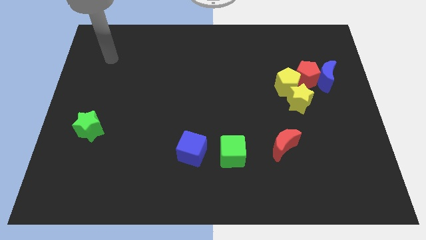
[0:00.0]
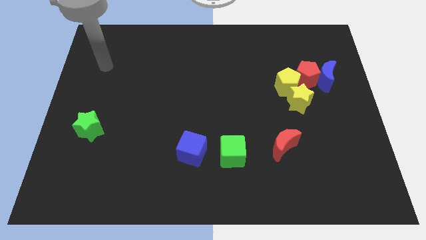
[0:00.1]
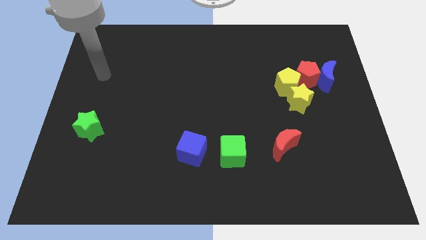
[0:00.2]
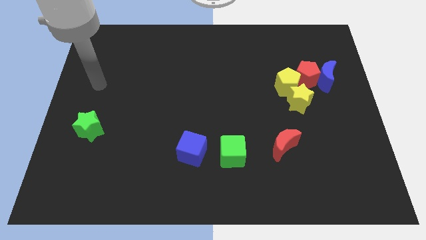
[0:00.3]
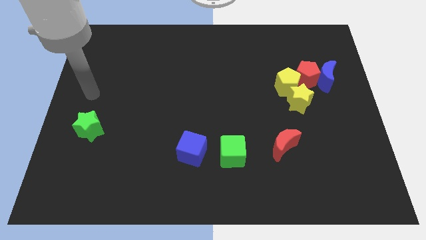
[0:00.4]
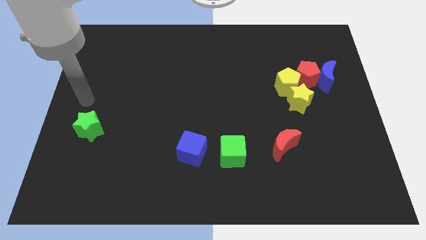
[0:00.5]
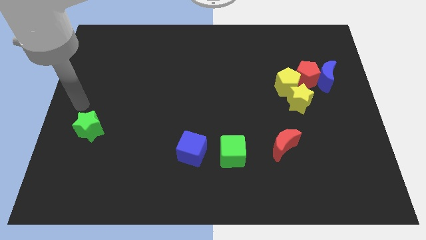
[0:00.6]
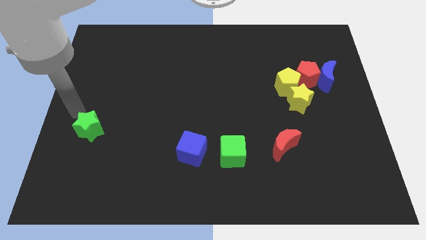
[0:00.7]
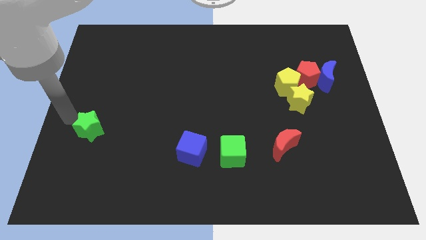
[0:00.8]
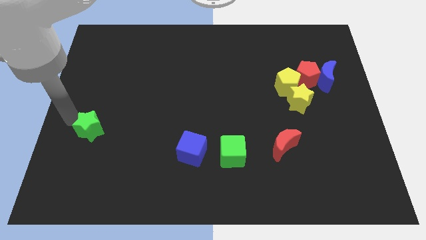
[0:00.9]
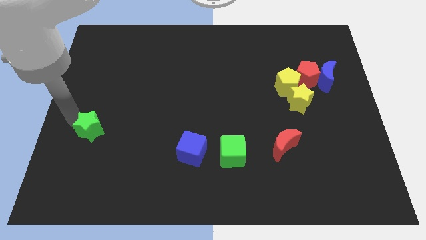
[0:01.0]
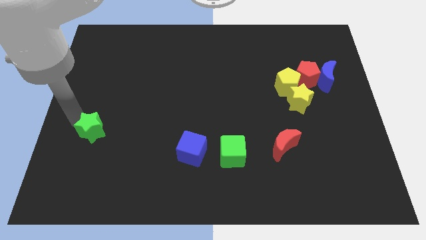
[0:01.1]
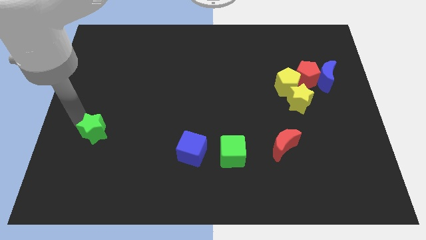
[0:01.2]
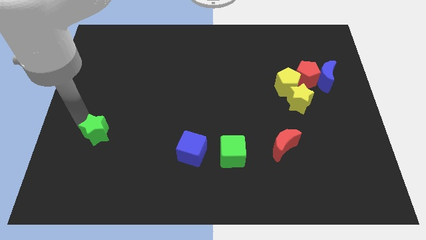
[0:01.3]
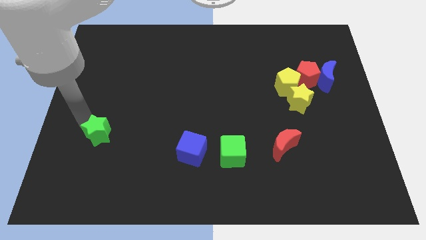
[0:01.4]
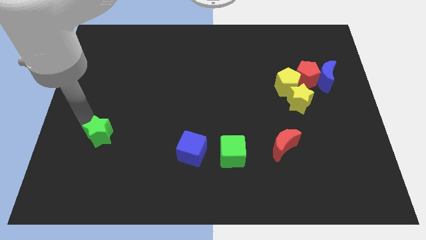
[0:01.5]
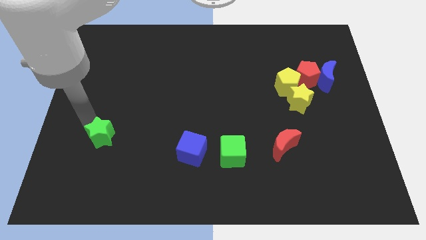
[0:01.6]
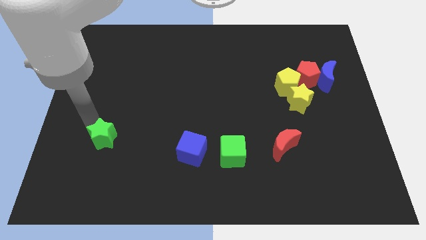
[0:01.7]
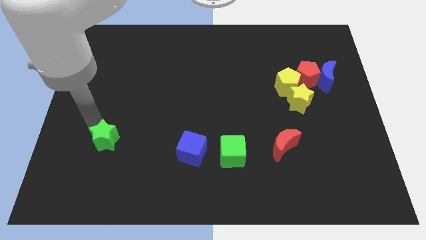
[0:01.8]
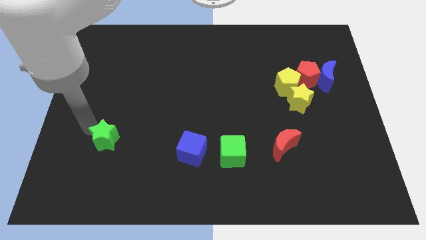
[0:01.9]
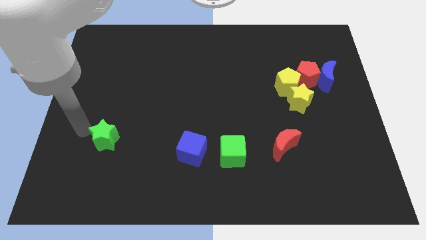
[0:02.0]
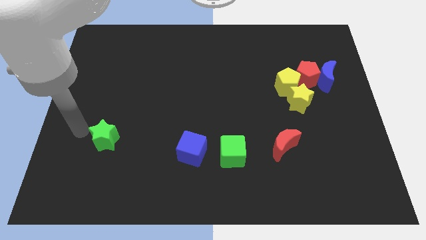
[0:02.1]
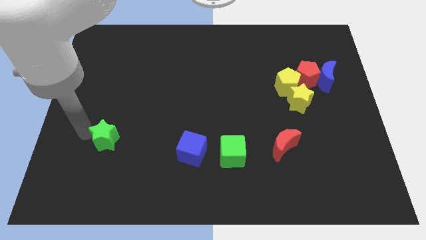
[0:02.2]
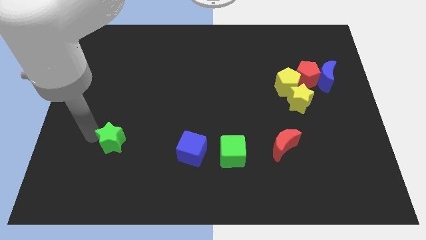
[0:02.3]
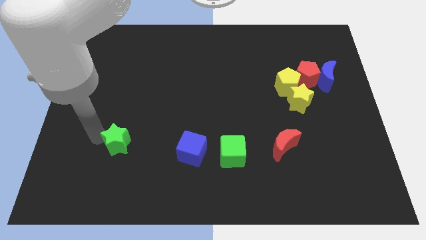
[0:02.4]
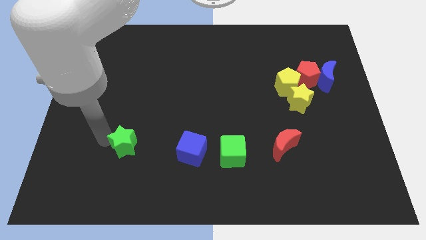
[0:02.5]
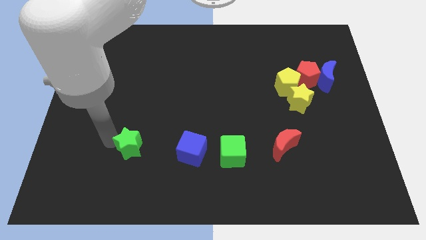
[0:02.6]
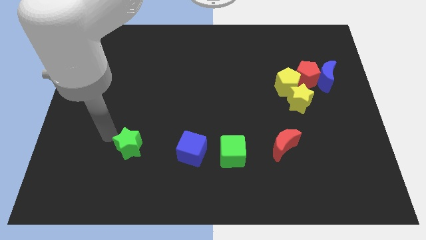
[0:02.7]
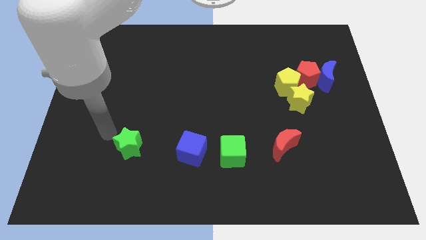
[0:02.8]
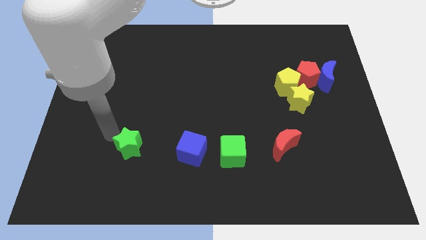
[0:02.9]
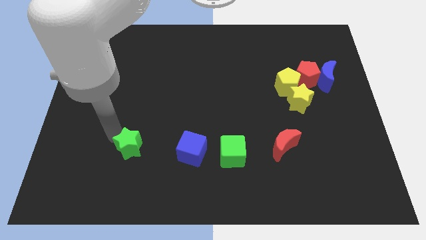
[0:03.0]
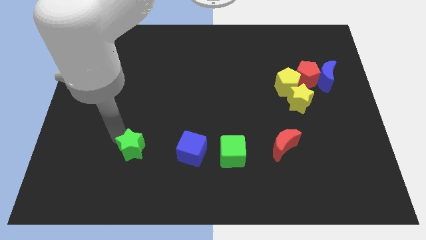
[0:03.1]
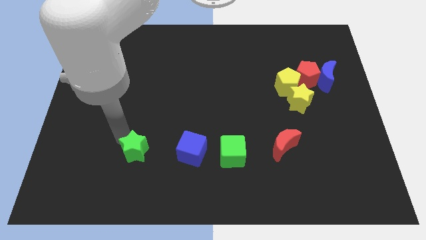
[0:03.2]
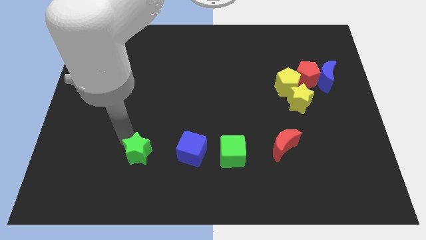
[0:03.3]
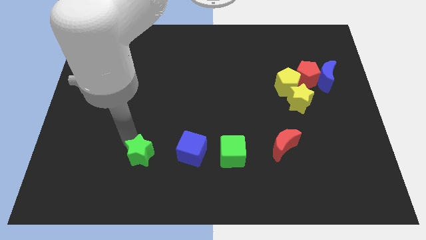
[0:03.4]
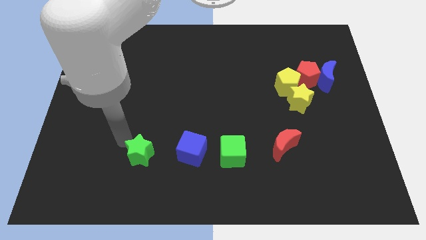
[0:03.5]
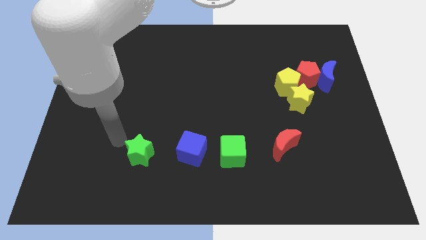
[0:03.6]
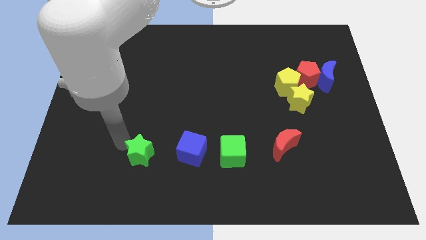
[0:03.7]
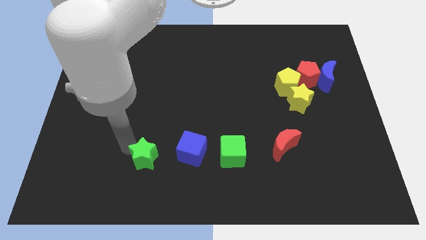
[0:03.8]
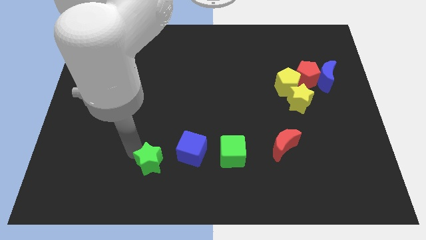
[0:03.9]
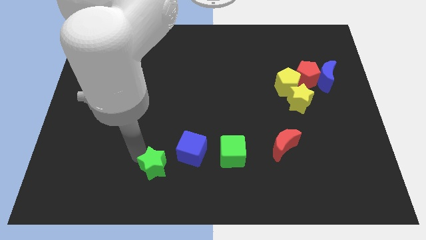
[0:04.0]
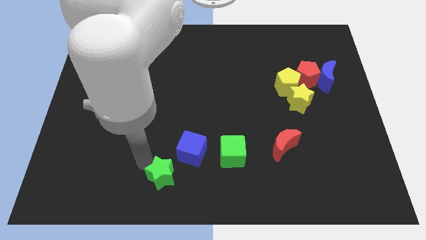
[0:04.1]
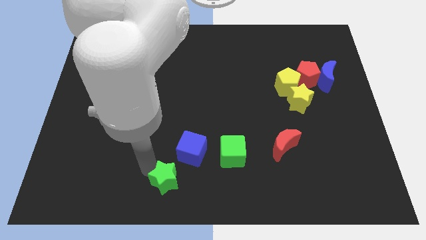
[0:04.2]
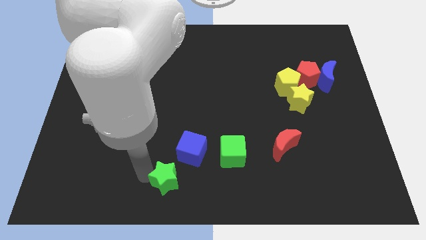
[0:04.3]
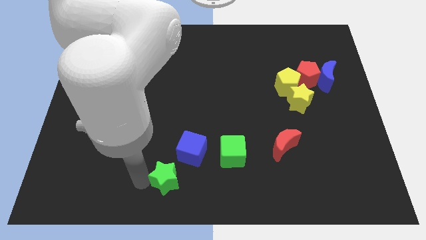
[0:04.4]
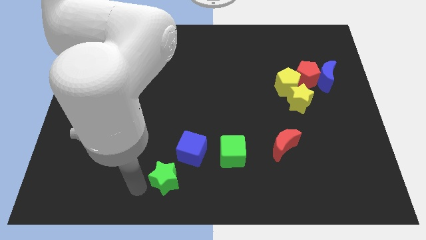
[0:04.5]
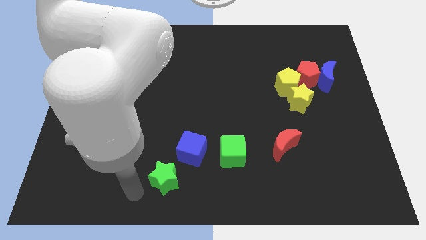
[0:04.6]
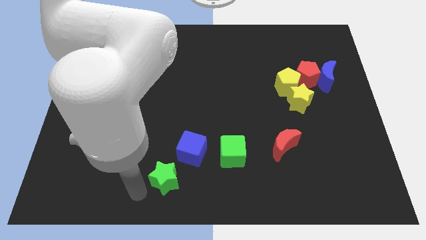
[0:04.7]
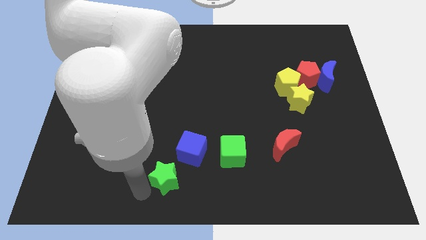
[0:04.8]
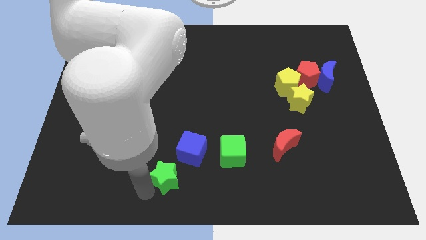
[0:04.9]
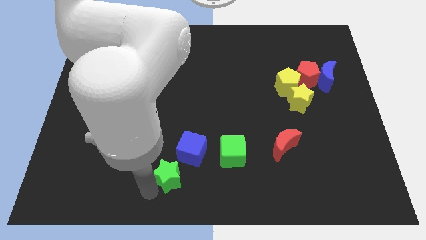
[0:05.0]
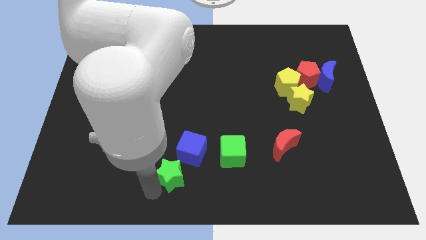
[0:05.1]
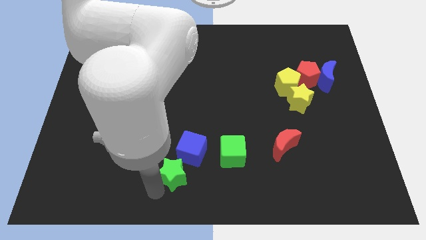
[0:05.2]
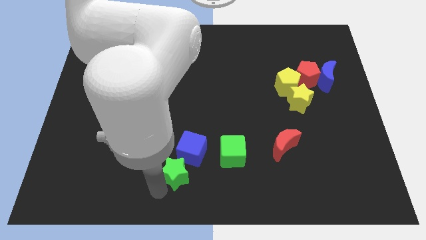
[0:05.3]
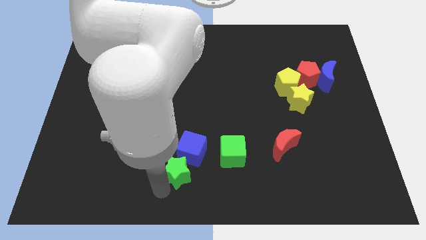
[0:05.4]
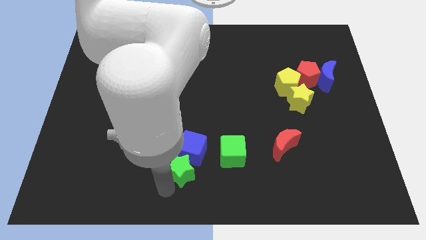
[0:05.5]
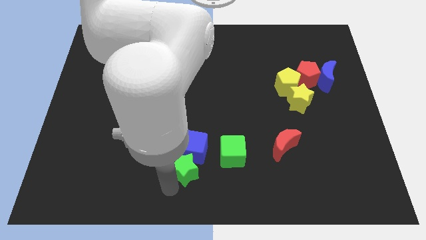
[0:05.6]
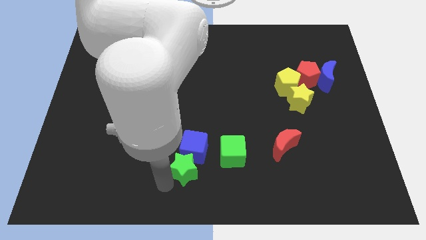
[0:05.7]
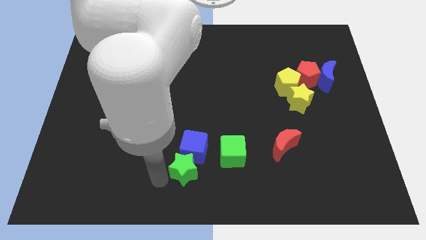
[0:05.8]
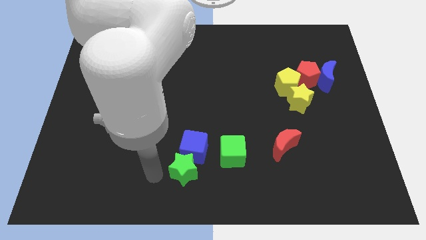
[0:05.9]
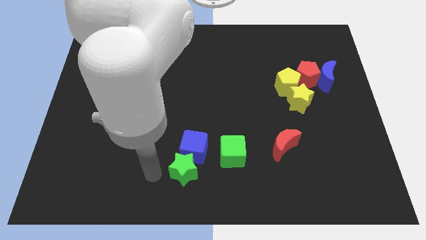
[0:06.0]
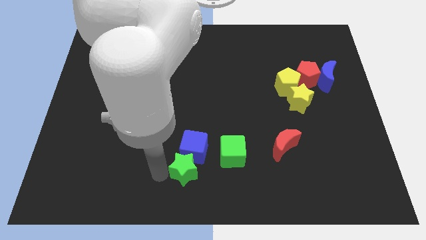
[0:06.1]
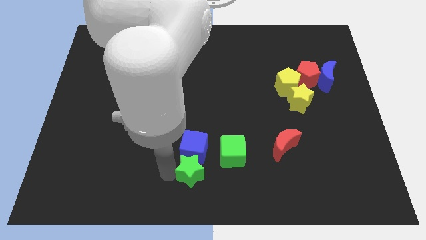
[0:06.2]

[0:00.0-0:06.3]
slide the green star to the bottom right side of the blue cube

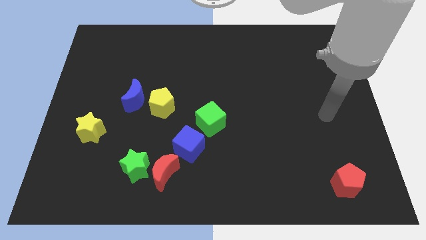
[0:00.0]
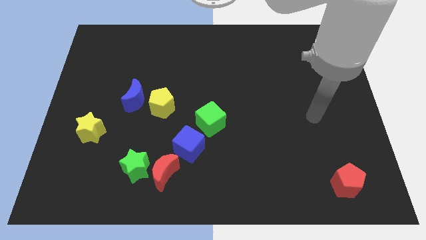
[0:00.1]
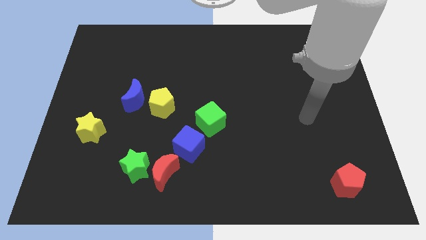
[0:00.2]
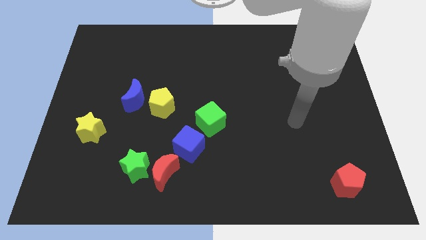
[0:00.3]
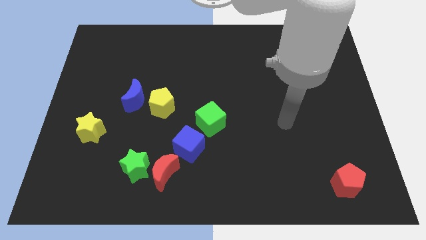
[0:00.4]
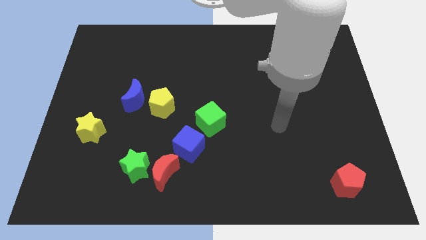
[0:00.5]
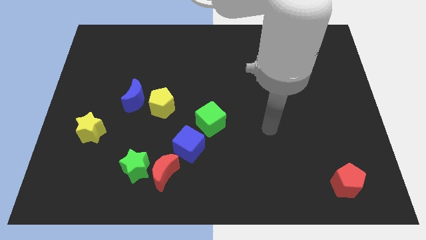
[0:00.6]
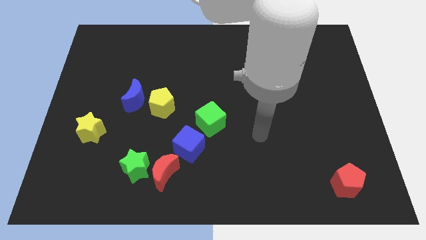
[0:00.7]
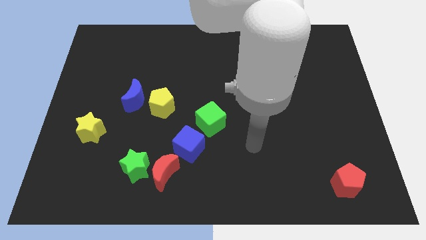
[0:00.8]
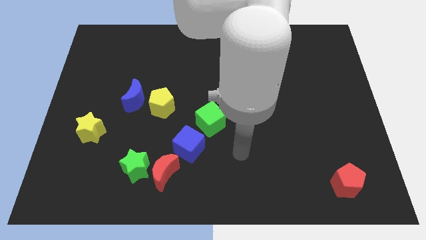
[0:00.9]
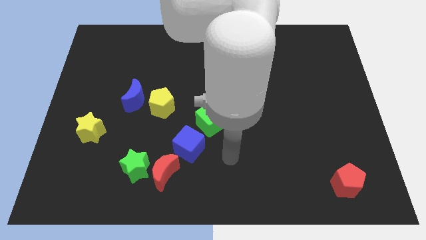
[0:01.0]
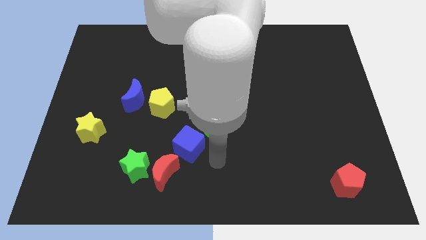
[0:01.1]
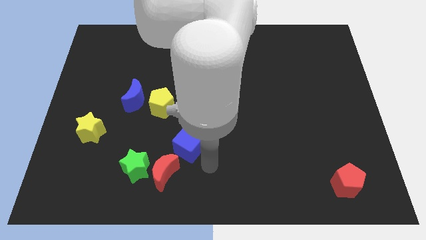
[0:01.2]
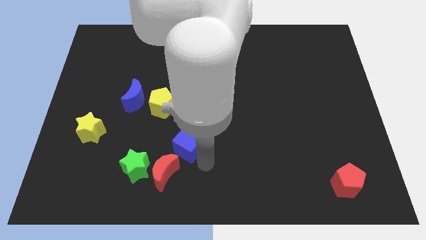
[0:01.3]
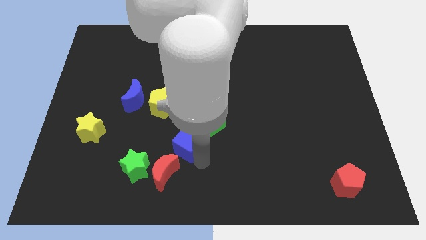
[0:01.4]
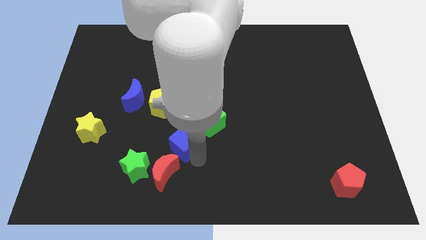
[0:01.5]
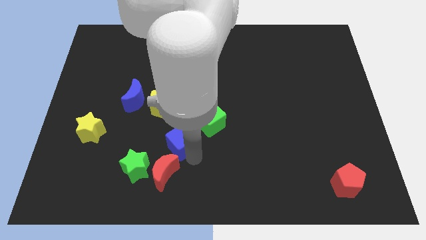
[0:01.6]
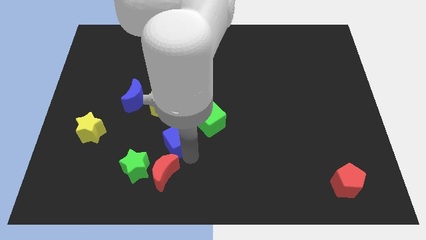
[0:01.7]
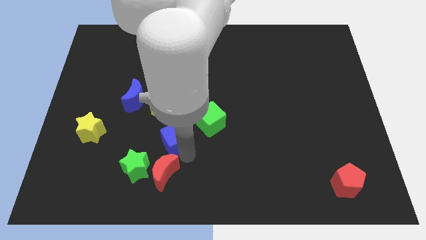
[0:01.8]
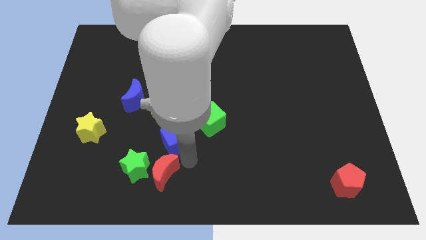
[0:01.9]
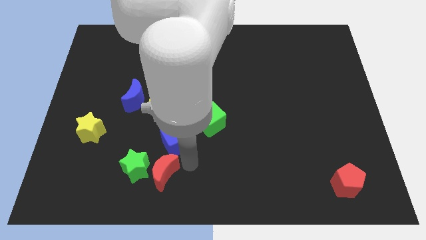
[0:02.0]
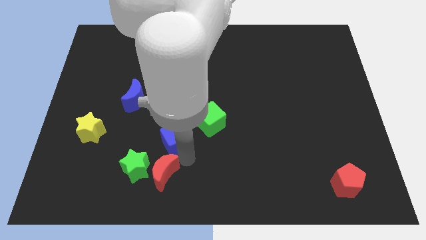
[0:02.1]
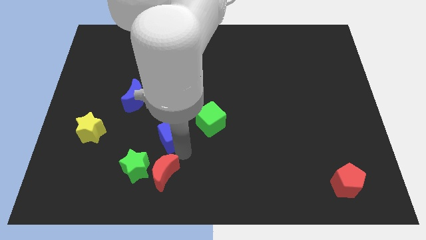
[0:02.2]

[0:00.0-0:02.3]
move the blue cube to the left of the green cube
